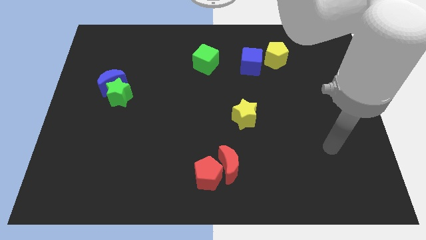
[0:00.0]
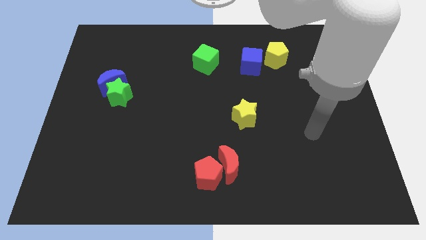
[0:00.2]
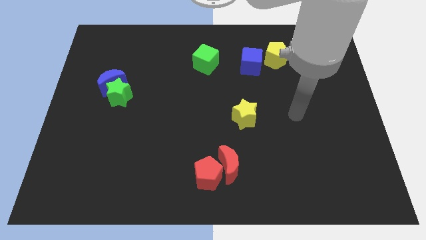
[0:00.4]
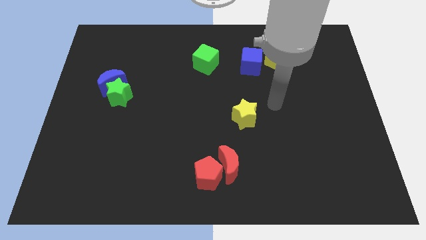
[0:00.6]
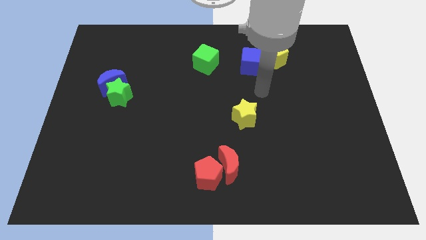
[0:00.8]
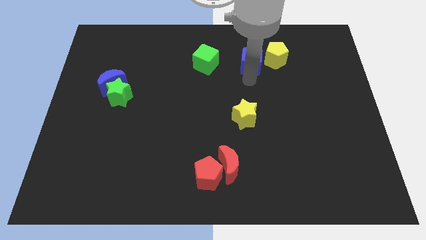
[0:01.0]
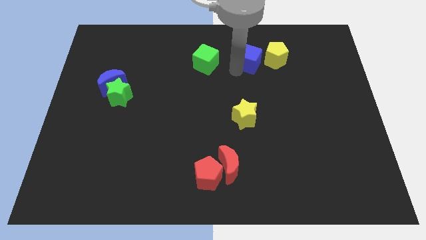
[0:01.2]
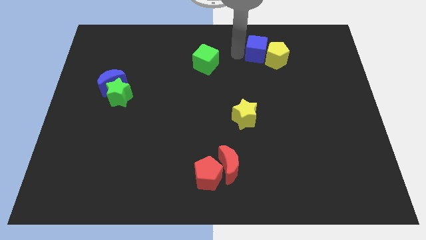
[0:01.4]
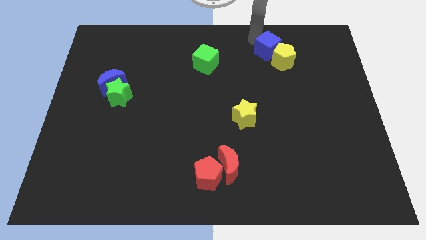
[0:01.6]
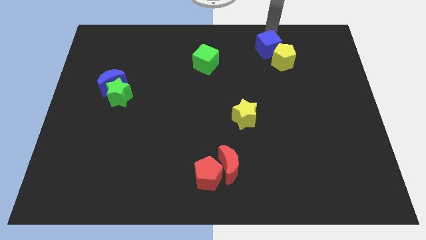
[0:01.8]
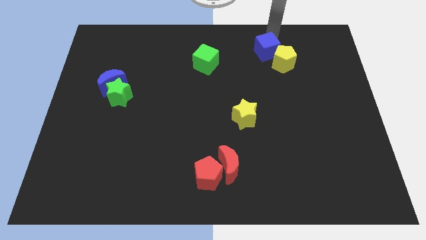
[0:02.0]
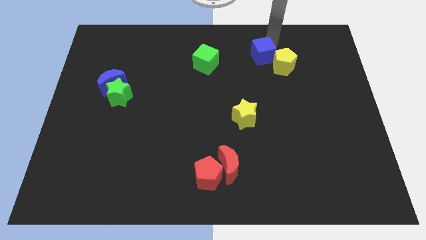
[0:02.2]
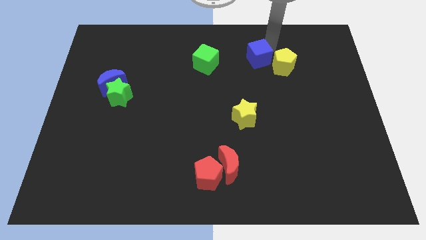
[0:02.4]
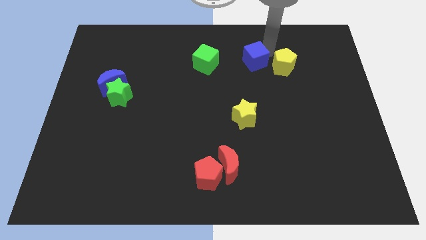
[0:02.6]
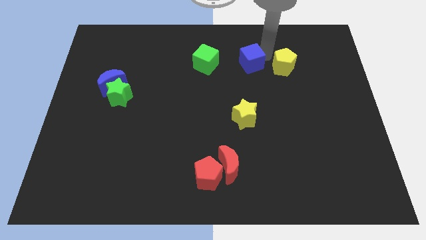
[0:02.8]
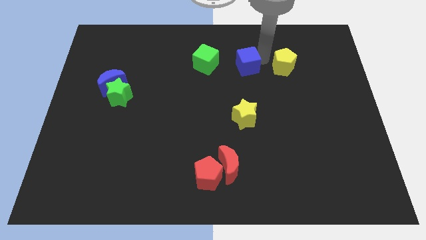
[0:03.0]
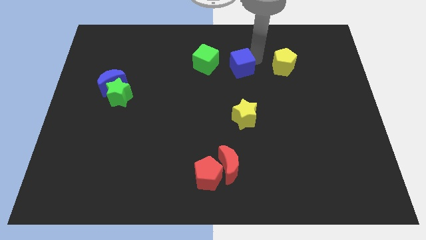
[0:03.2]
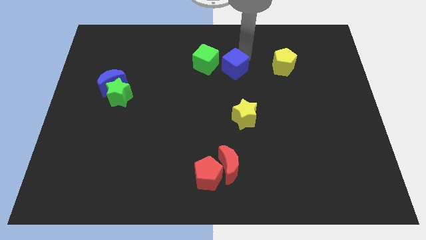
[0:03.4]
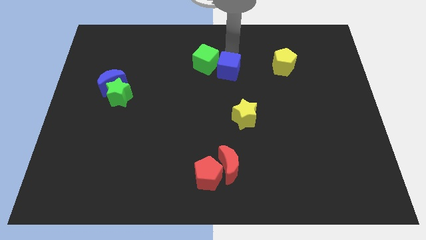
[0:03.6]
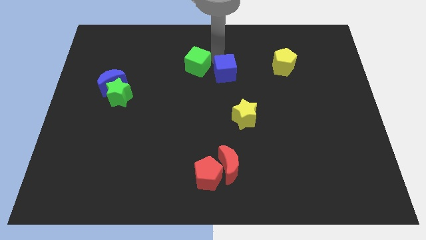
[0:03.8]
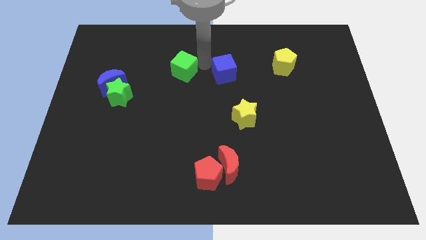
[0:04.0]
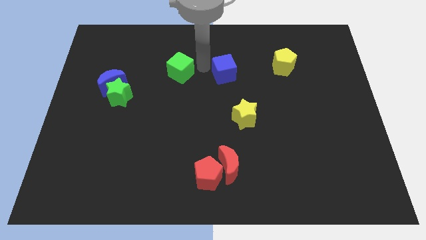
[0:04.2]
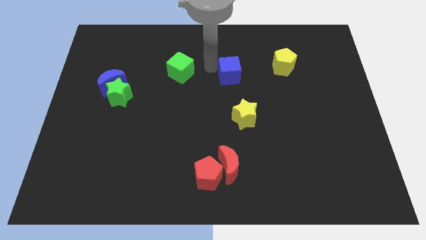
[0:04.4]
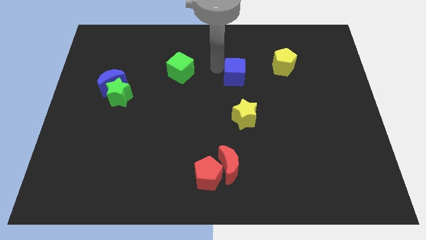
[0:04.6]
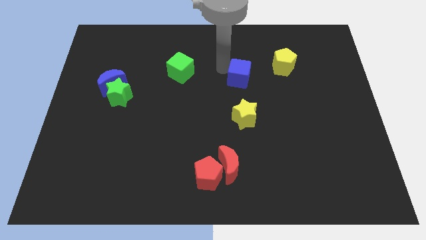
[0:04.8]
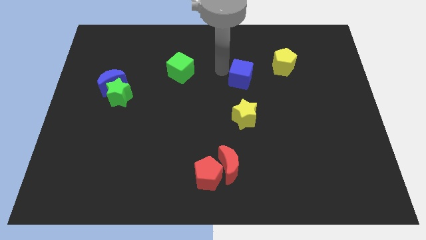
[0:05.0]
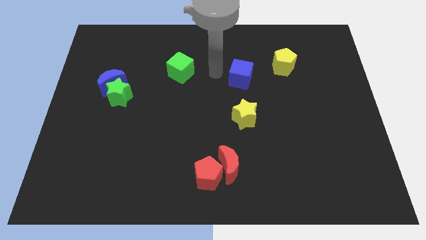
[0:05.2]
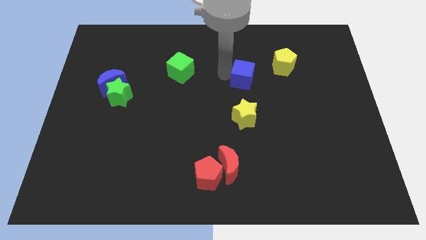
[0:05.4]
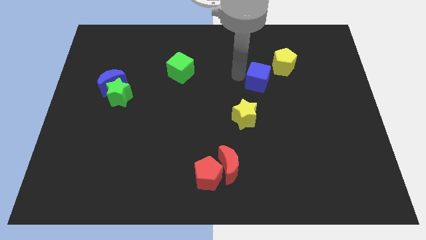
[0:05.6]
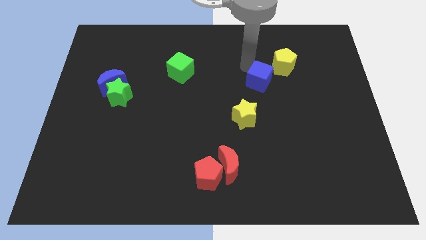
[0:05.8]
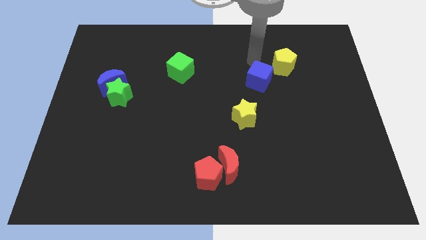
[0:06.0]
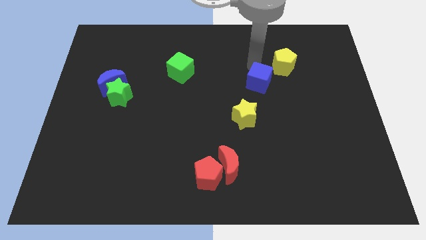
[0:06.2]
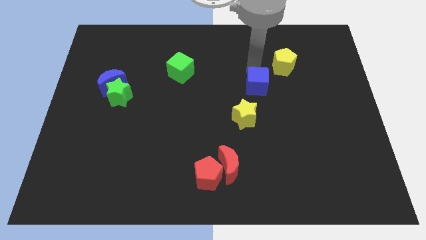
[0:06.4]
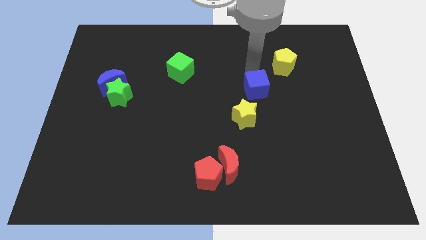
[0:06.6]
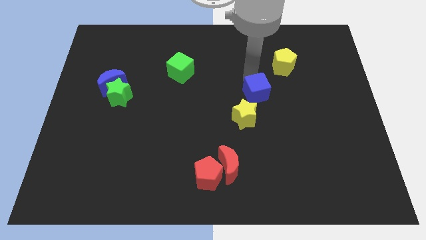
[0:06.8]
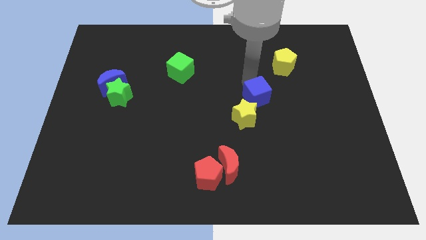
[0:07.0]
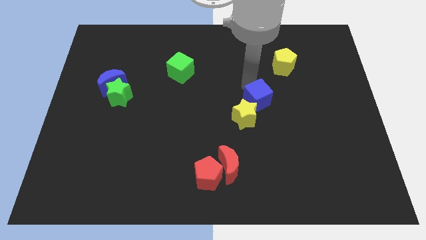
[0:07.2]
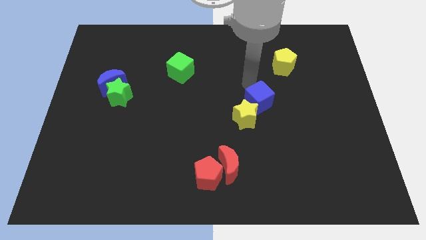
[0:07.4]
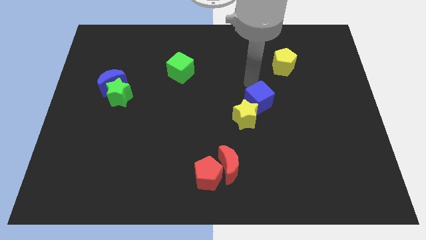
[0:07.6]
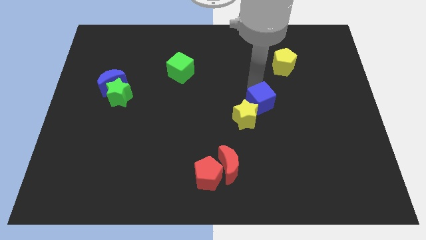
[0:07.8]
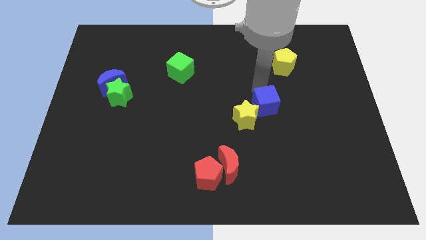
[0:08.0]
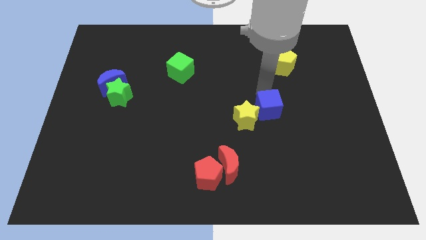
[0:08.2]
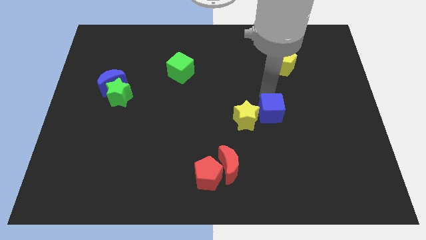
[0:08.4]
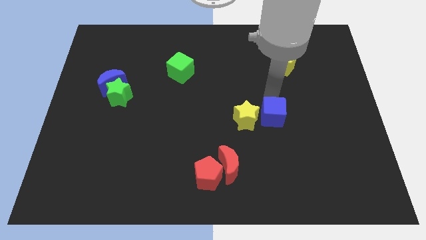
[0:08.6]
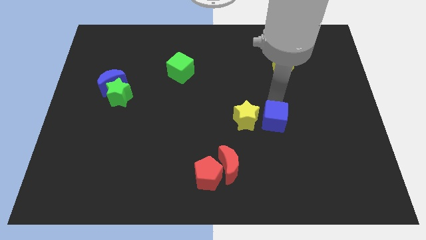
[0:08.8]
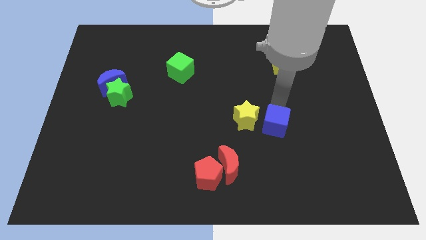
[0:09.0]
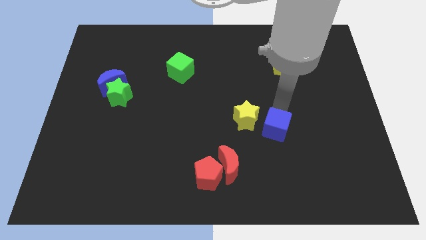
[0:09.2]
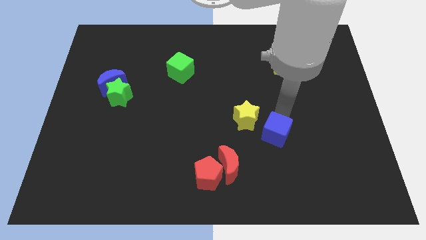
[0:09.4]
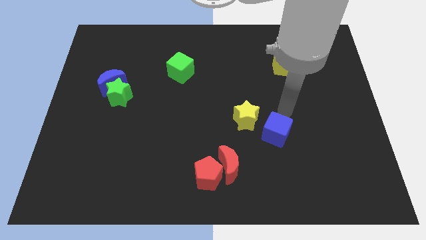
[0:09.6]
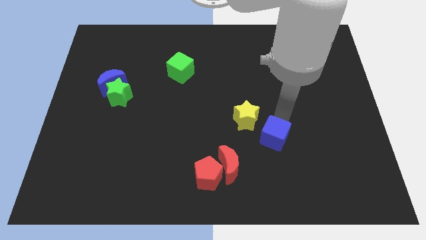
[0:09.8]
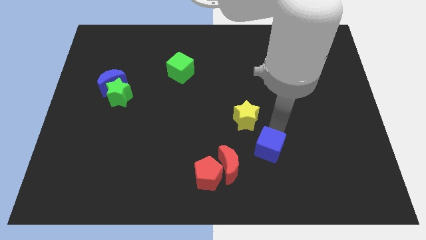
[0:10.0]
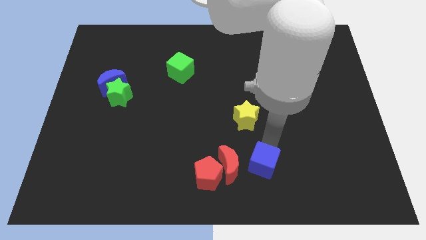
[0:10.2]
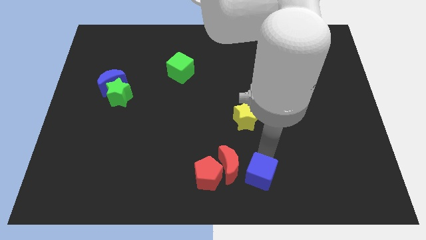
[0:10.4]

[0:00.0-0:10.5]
push the blue cube to the bottom side

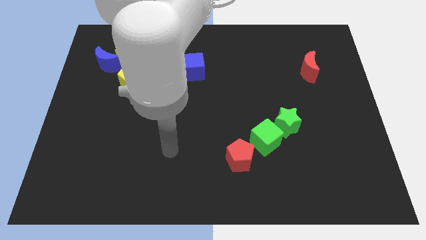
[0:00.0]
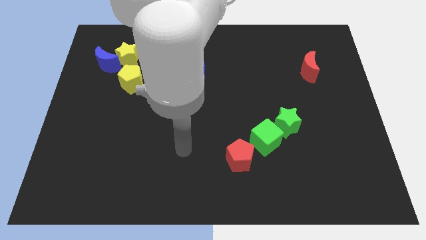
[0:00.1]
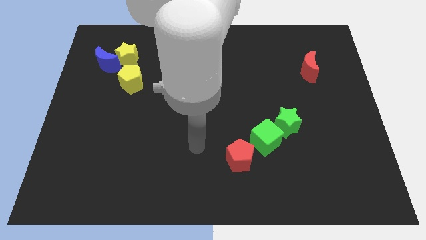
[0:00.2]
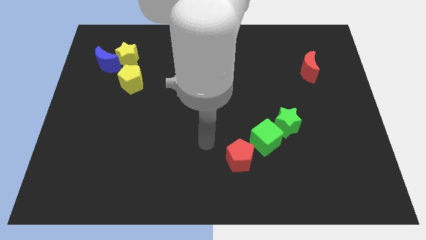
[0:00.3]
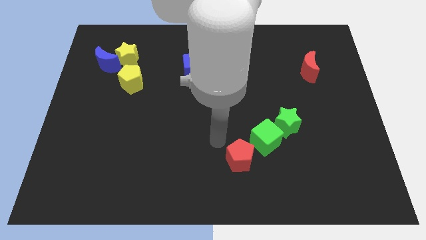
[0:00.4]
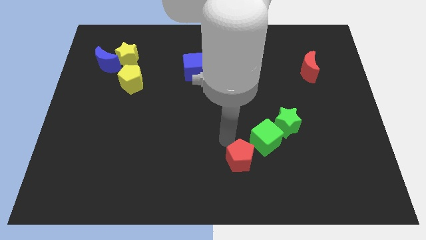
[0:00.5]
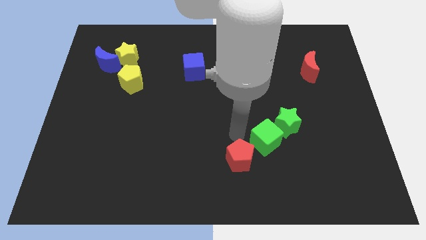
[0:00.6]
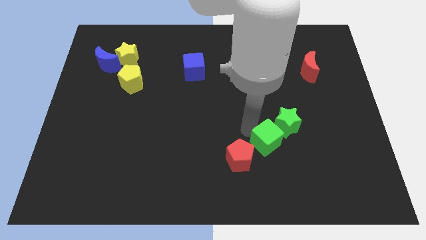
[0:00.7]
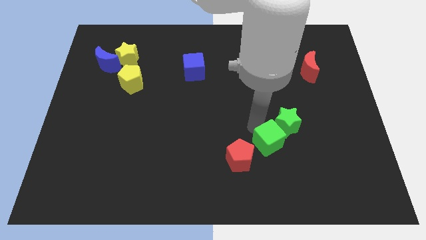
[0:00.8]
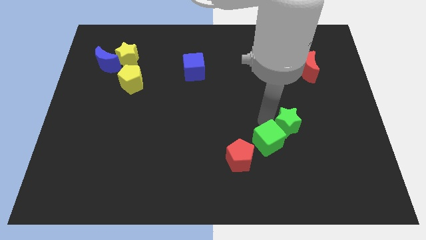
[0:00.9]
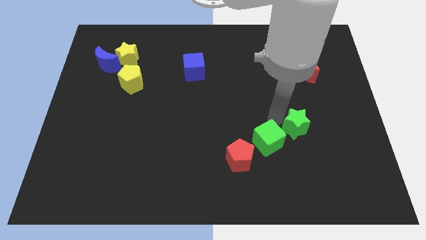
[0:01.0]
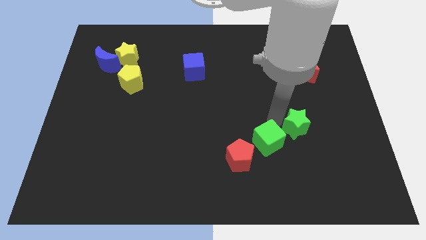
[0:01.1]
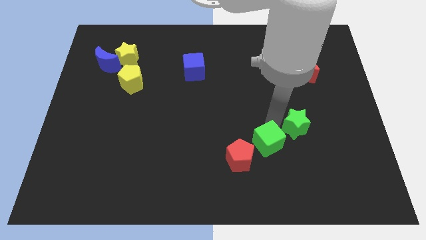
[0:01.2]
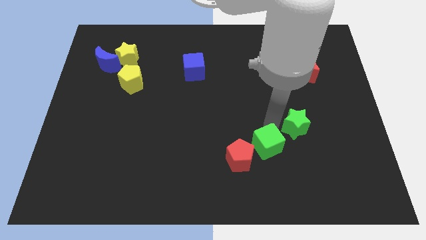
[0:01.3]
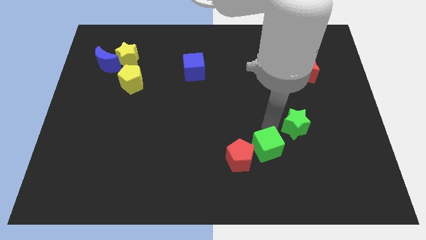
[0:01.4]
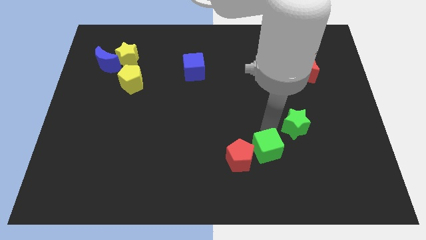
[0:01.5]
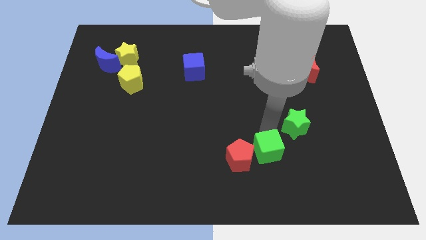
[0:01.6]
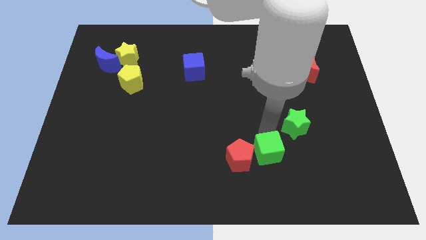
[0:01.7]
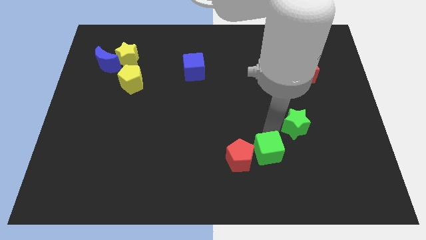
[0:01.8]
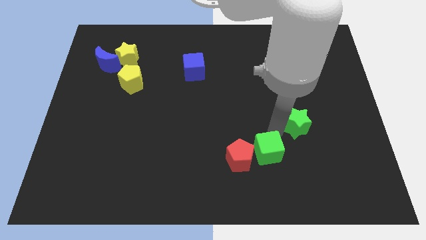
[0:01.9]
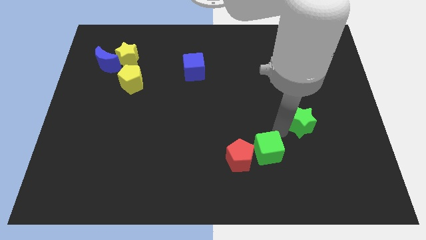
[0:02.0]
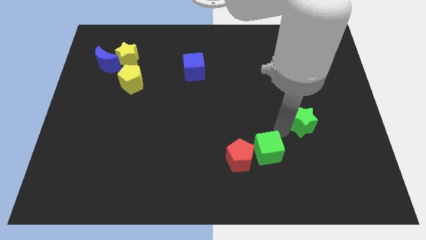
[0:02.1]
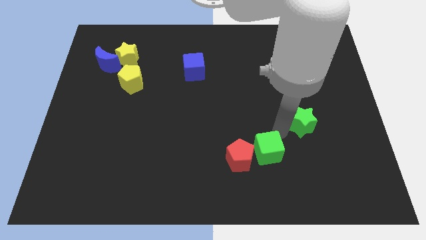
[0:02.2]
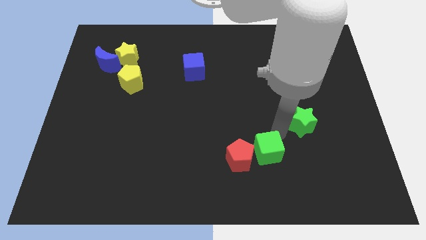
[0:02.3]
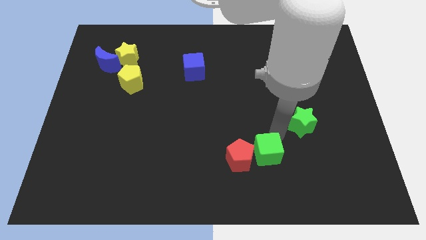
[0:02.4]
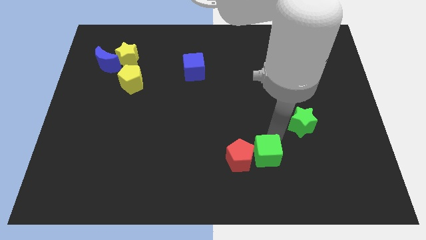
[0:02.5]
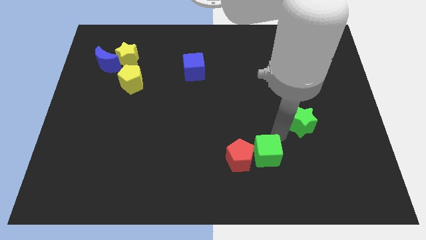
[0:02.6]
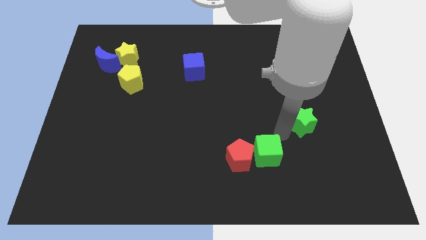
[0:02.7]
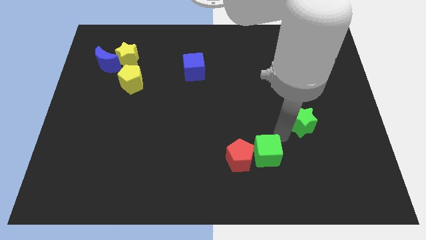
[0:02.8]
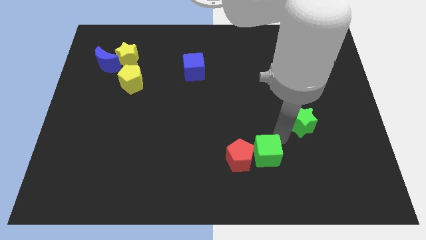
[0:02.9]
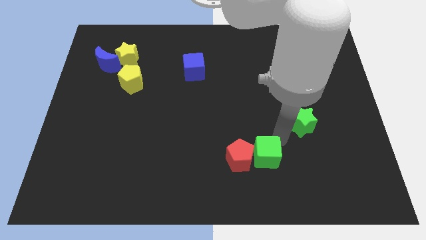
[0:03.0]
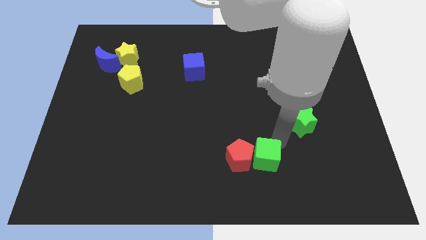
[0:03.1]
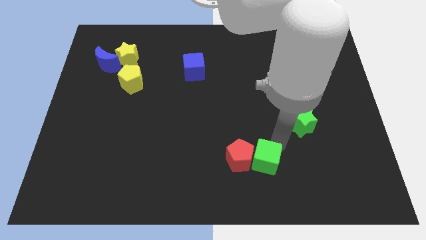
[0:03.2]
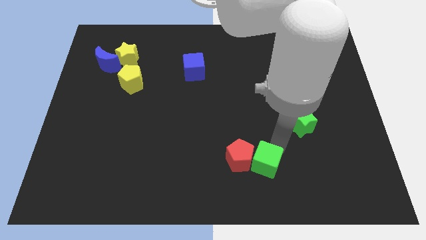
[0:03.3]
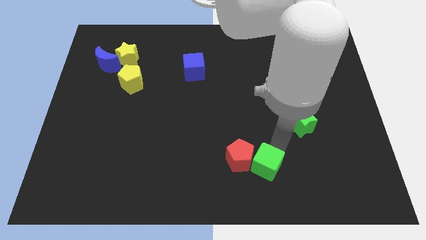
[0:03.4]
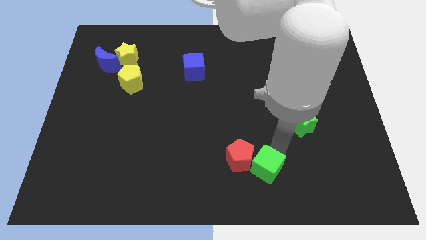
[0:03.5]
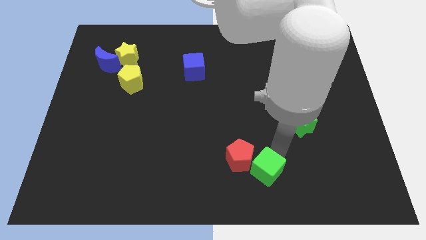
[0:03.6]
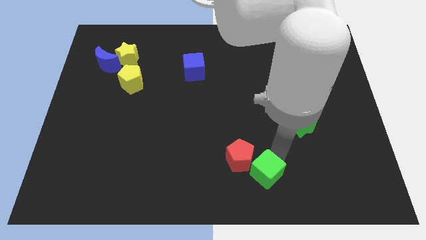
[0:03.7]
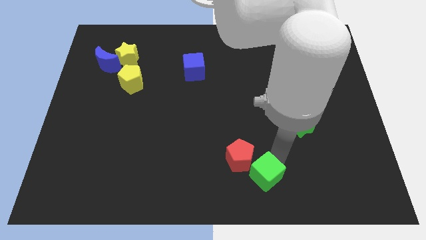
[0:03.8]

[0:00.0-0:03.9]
slide the green cube to the bottom side
